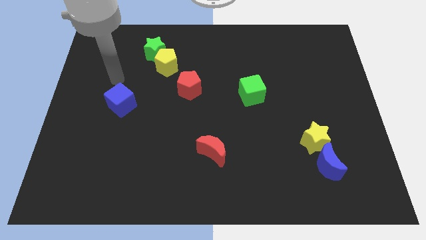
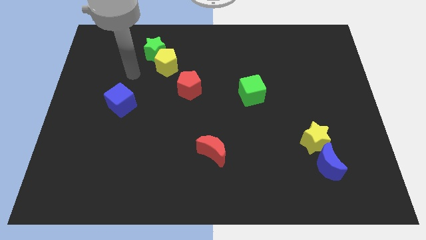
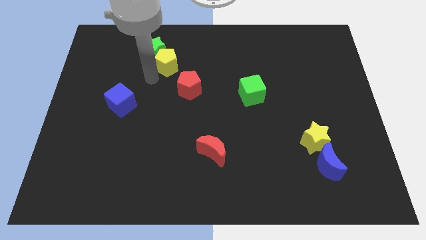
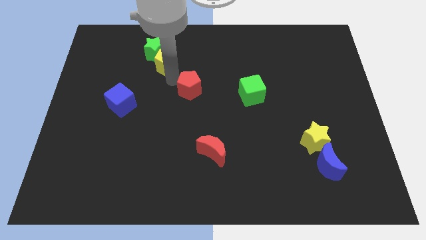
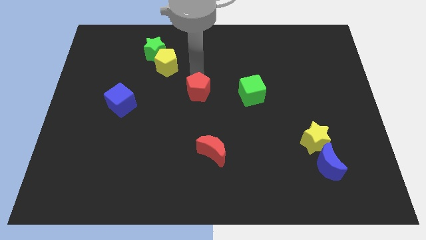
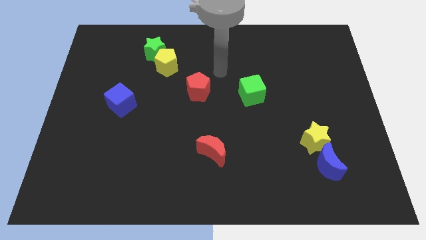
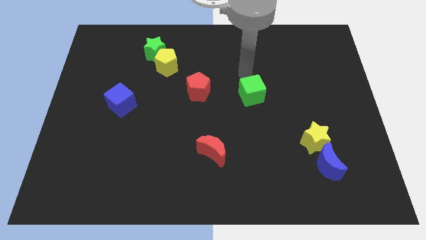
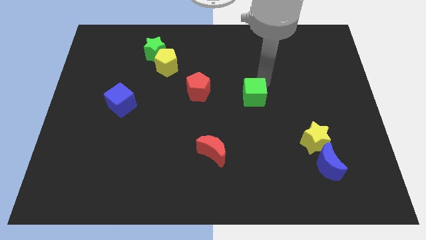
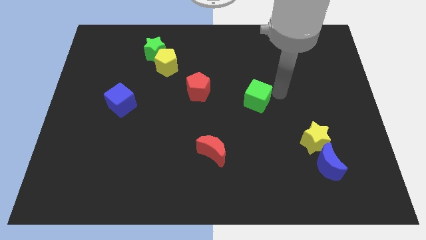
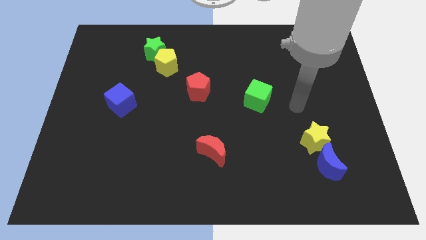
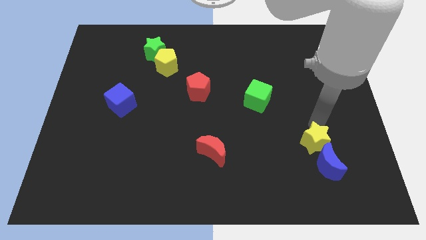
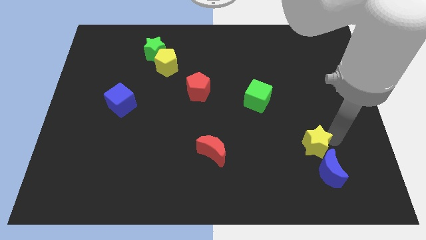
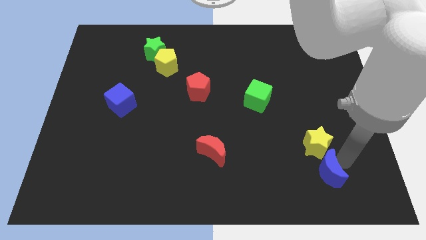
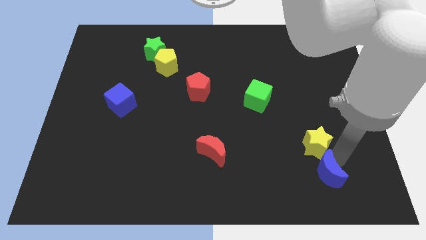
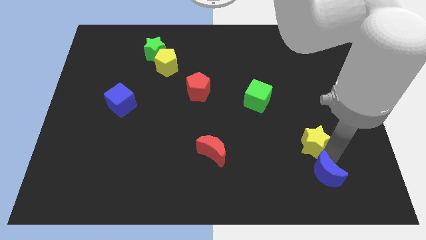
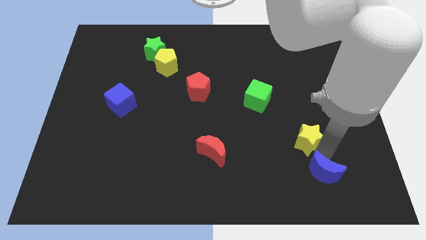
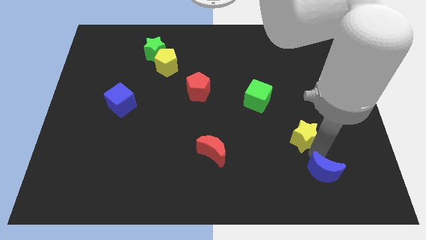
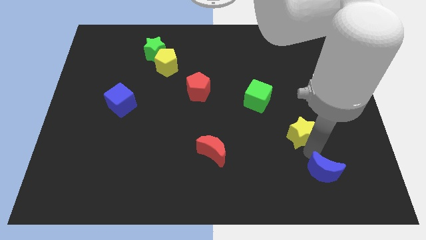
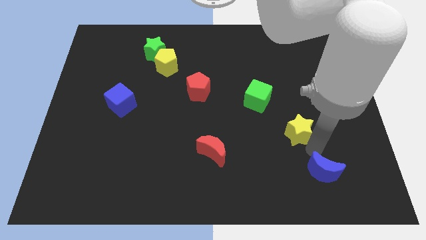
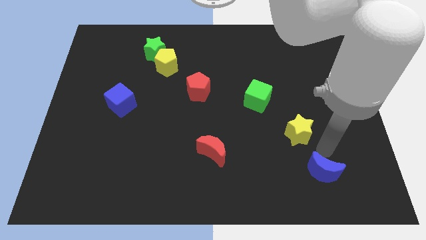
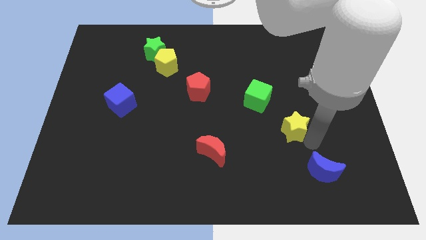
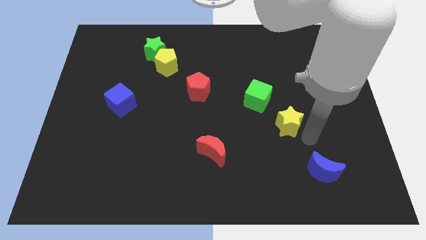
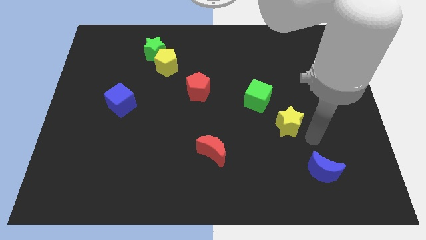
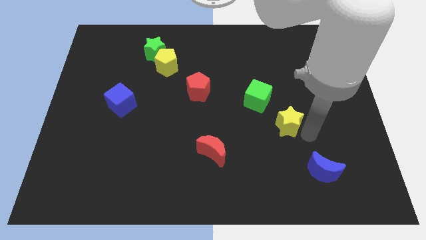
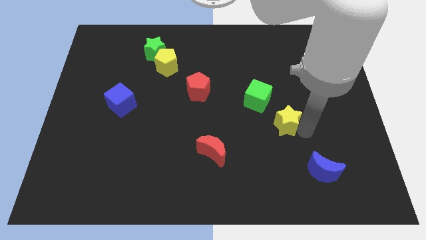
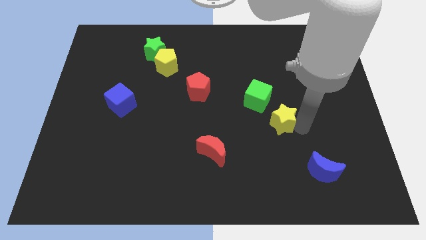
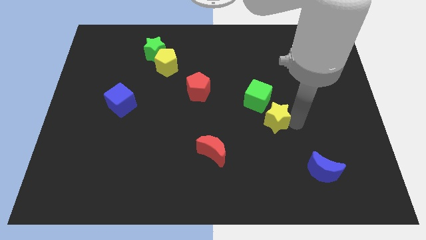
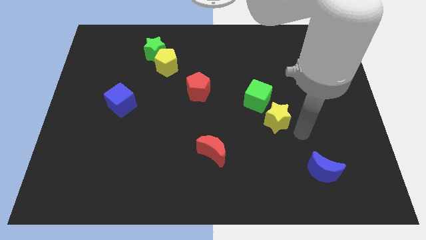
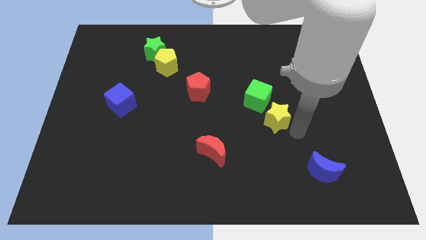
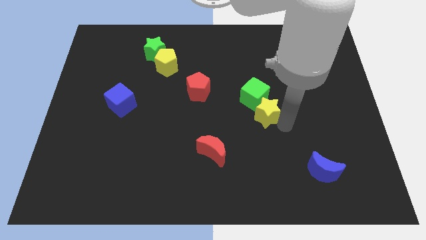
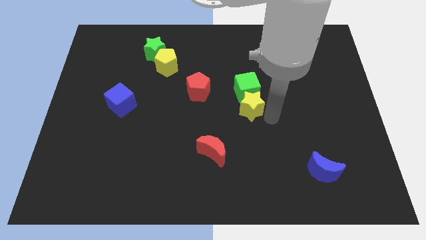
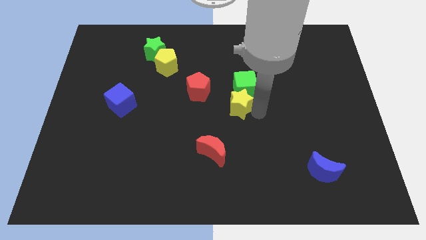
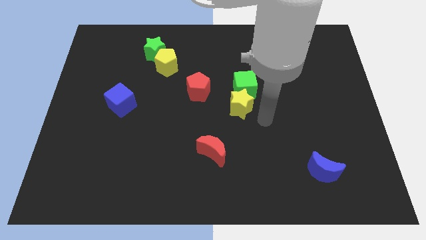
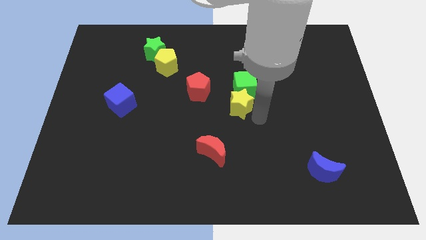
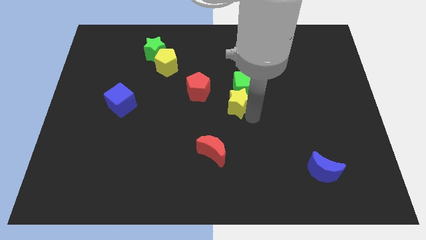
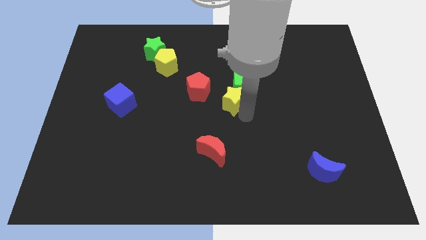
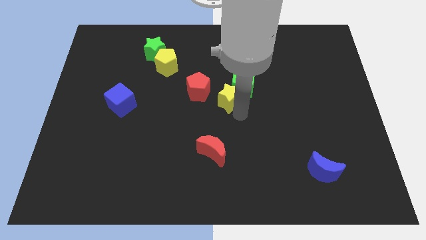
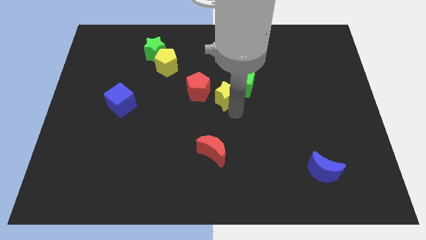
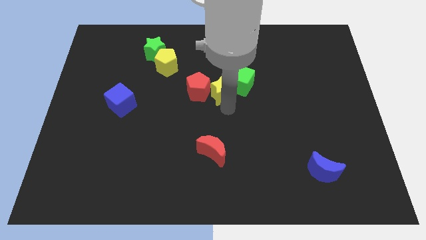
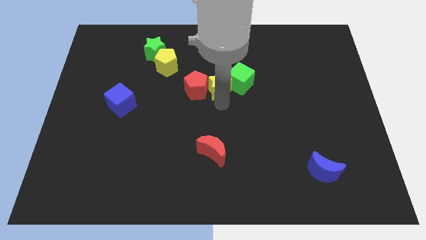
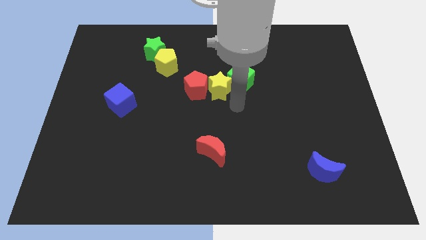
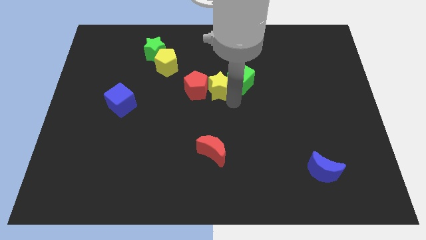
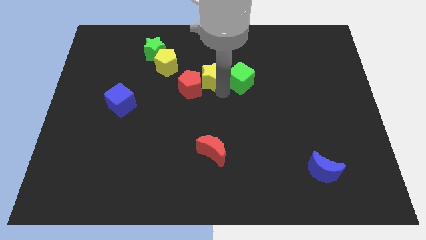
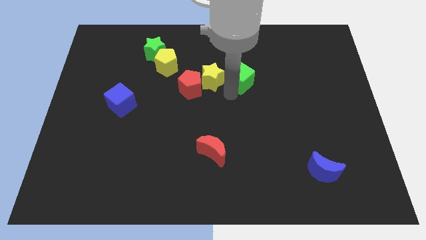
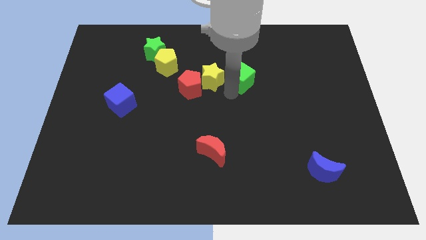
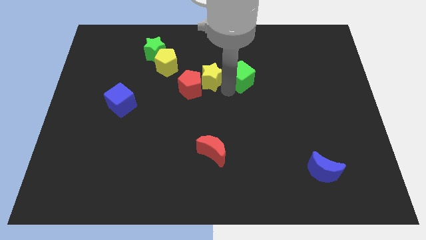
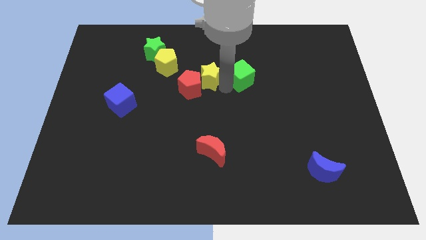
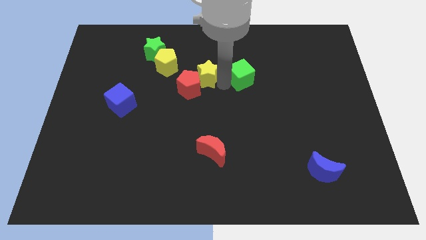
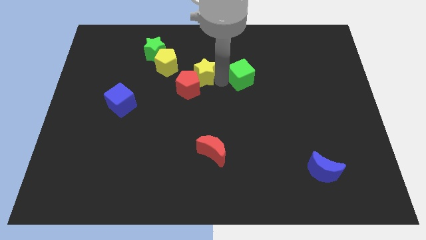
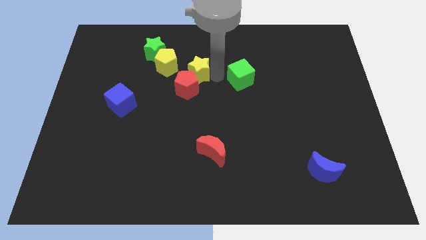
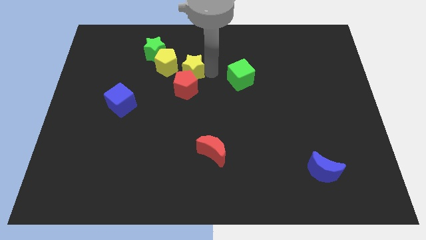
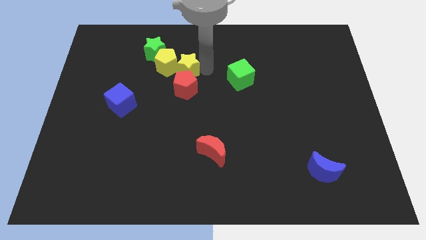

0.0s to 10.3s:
move the yellow star towards the yellow pentagon

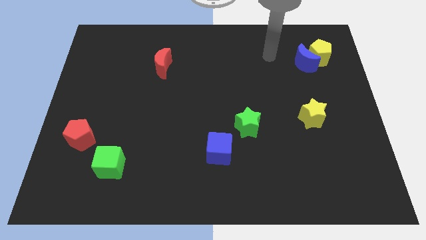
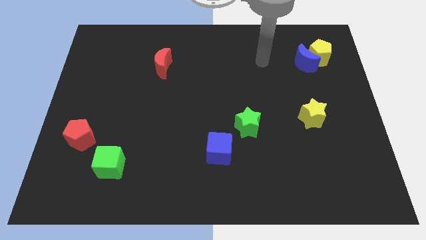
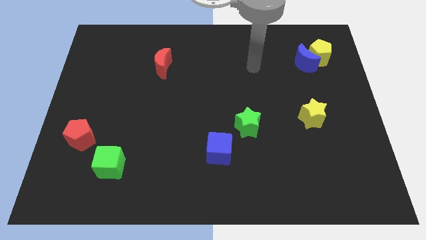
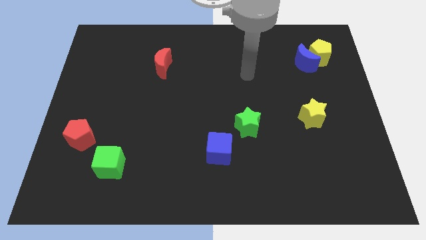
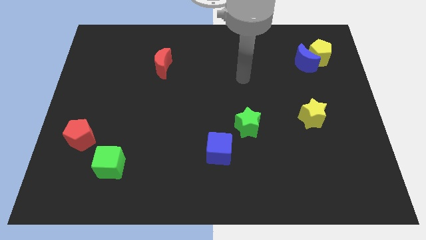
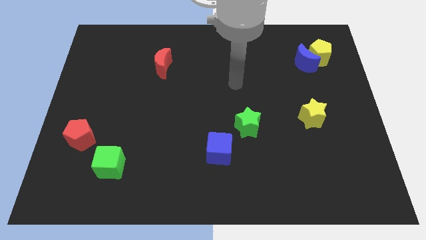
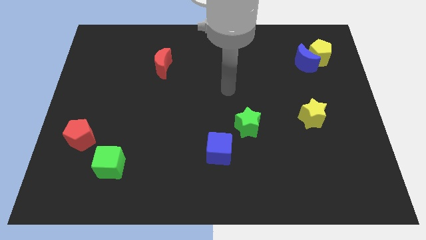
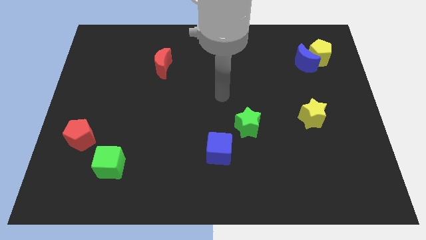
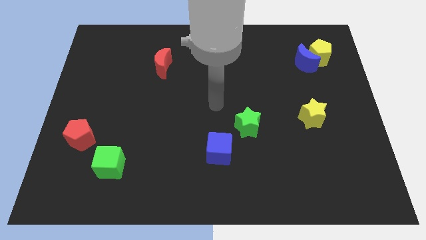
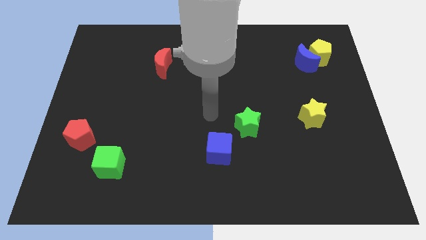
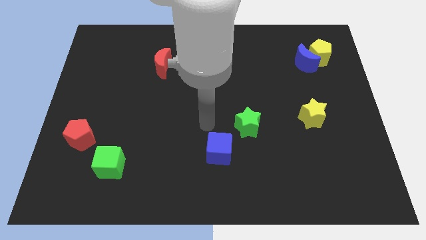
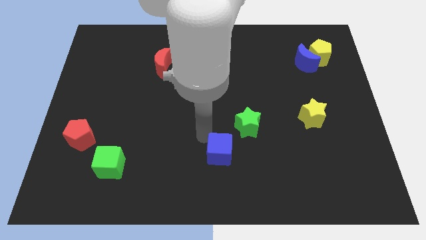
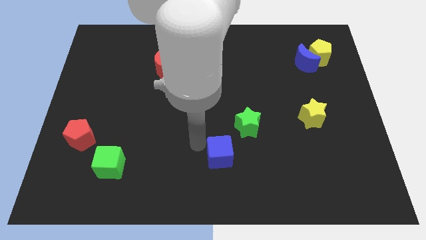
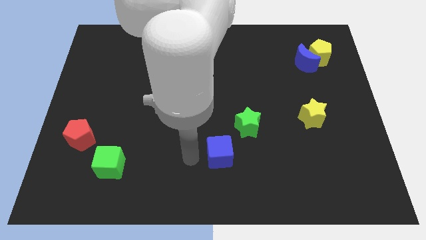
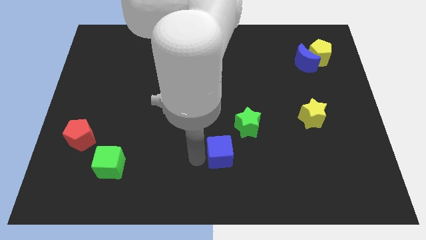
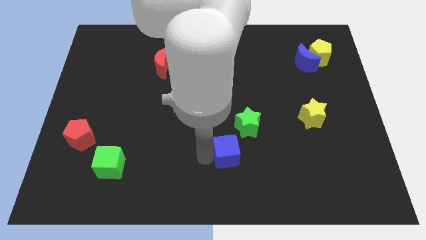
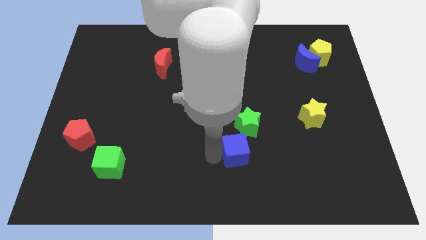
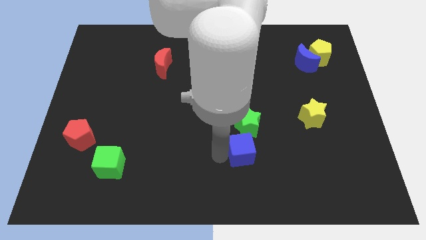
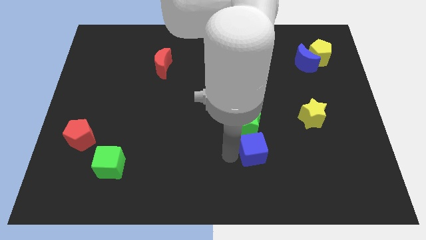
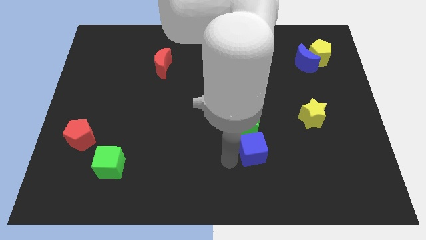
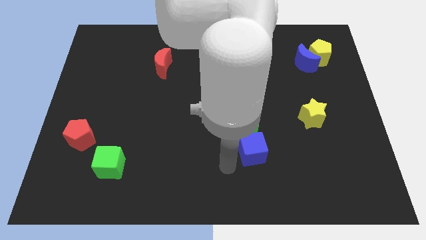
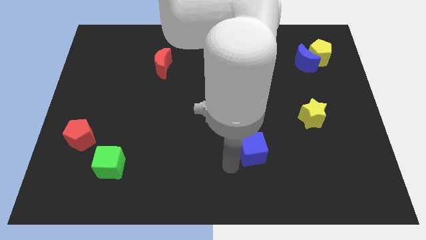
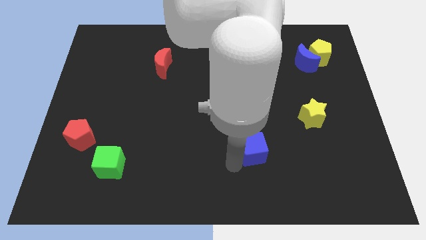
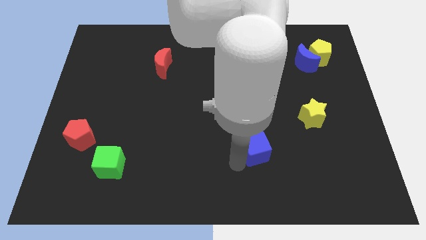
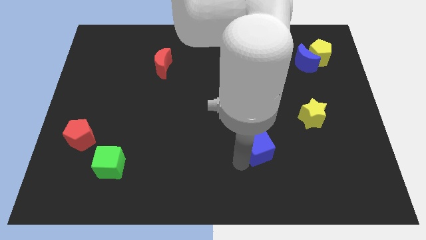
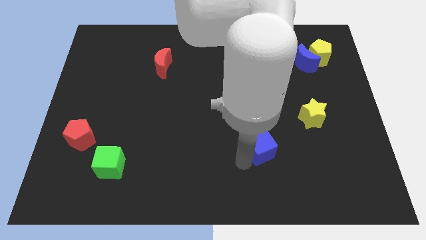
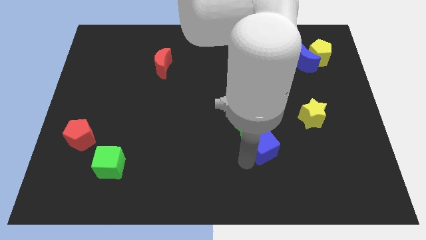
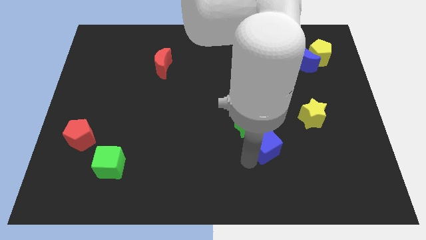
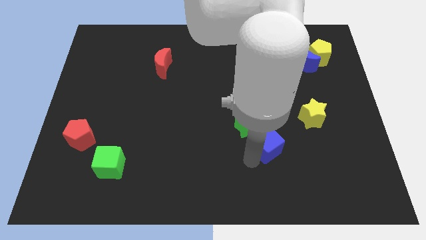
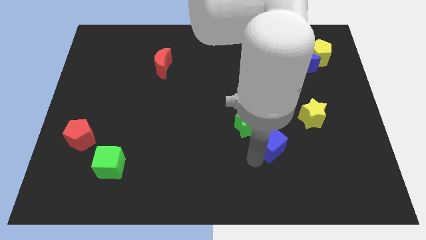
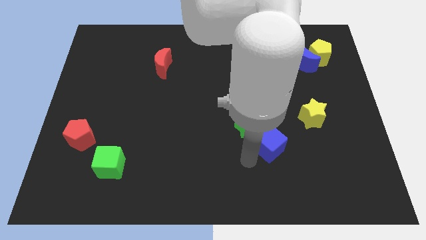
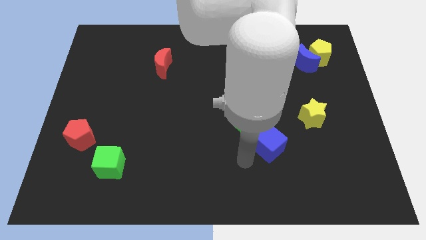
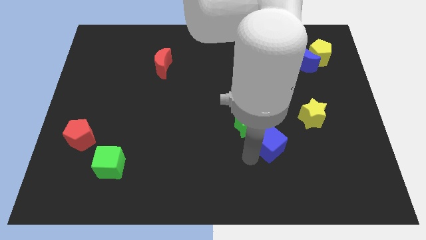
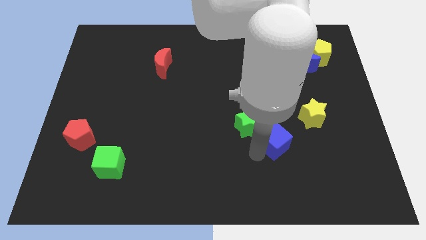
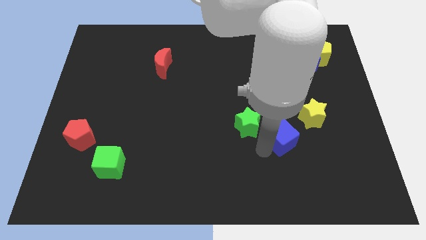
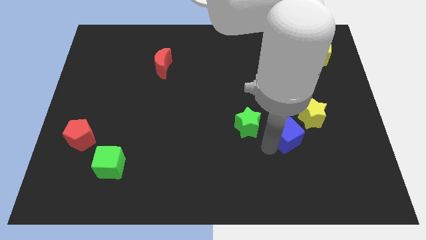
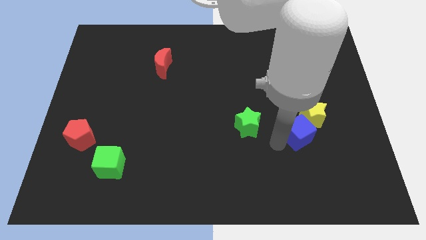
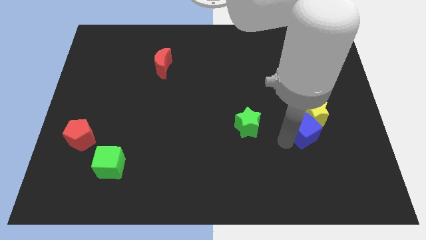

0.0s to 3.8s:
put the blue cube towards the yellow star
